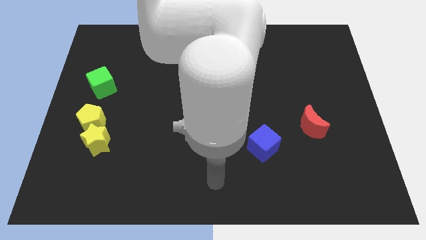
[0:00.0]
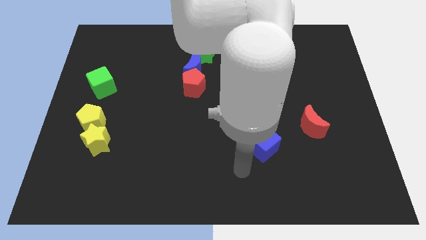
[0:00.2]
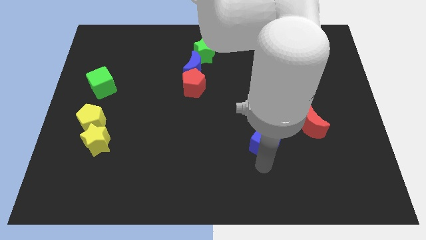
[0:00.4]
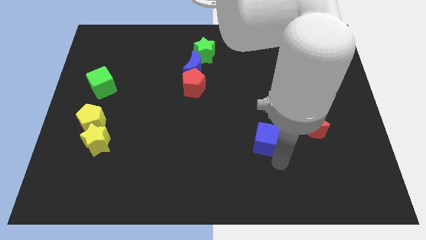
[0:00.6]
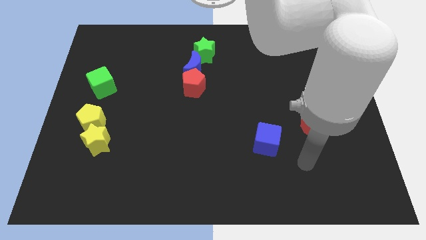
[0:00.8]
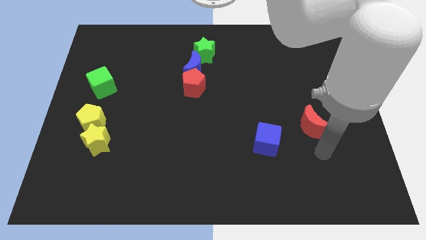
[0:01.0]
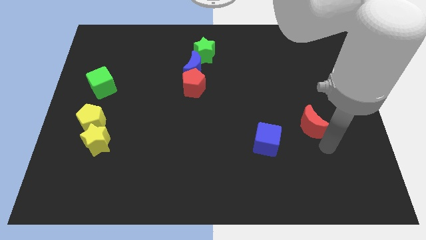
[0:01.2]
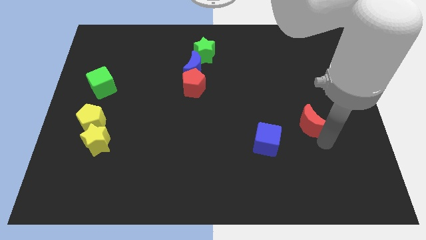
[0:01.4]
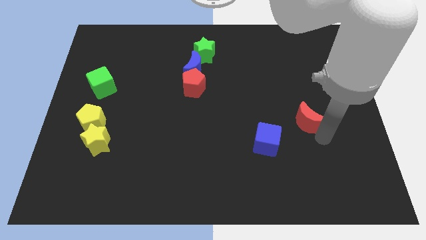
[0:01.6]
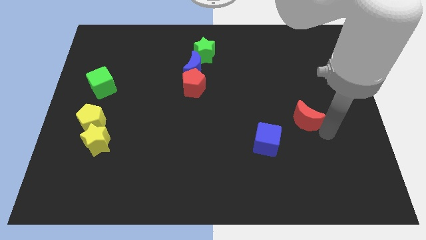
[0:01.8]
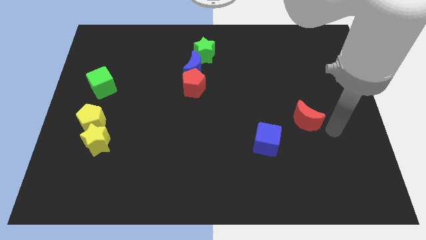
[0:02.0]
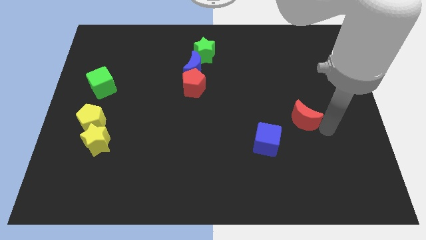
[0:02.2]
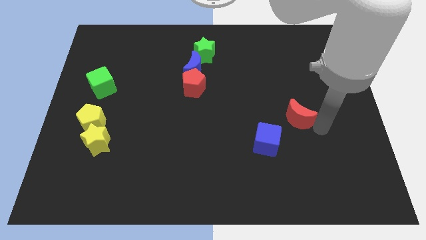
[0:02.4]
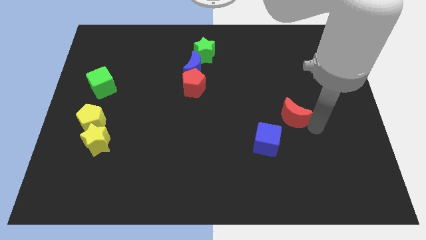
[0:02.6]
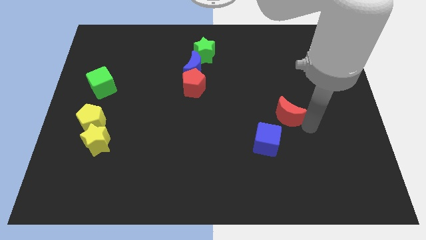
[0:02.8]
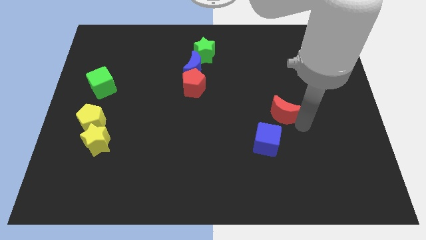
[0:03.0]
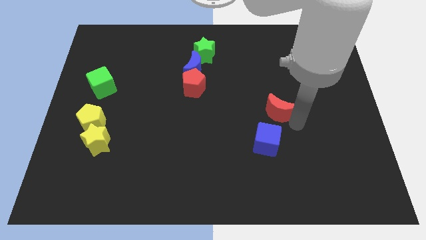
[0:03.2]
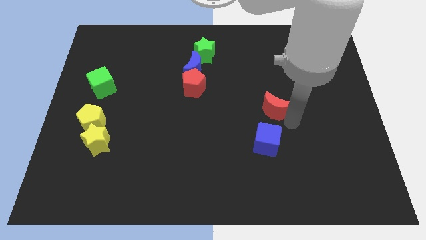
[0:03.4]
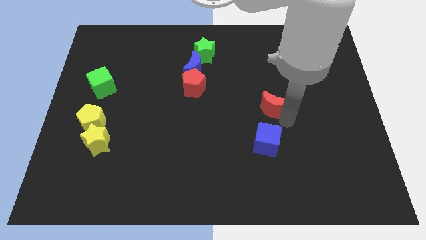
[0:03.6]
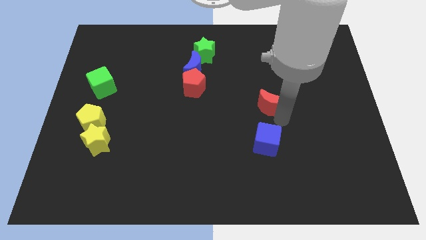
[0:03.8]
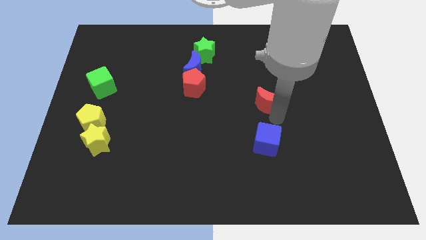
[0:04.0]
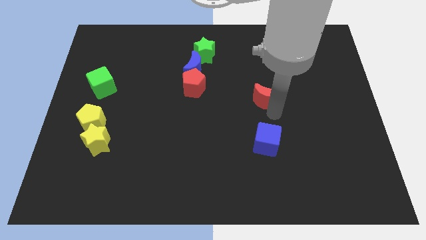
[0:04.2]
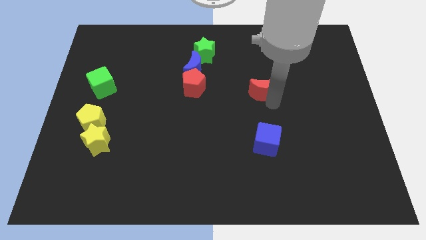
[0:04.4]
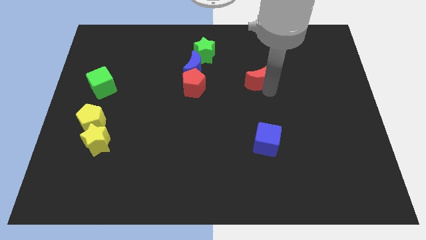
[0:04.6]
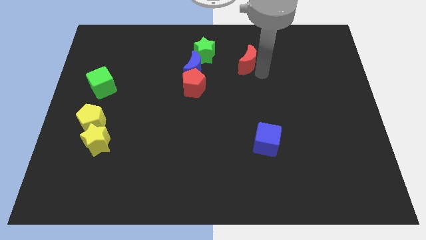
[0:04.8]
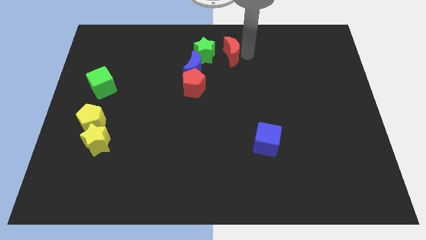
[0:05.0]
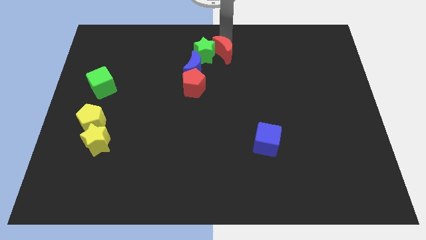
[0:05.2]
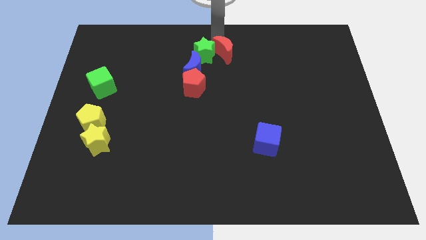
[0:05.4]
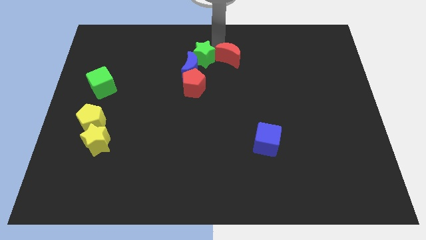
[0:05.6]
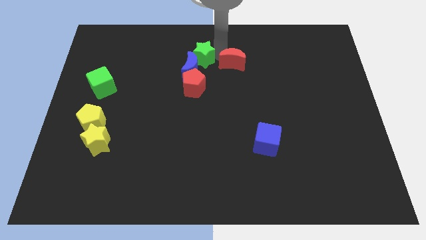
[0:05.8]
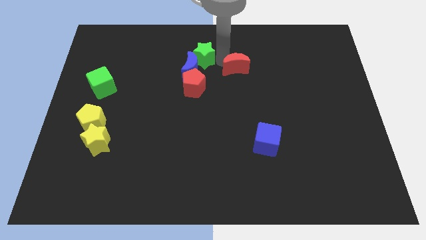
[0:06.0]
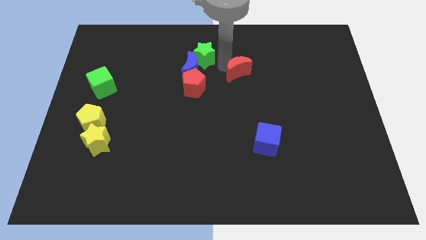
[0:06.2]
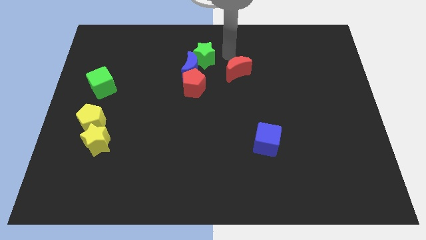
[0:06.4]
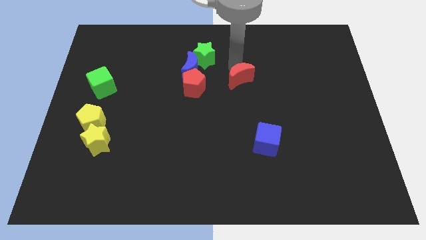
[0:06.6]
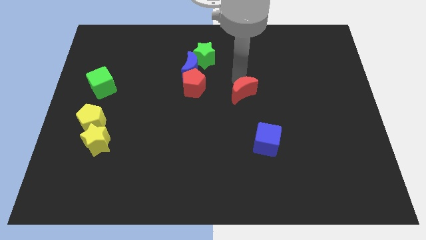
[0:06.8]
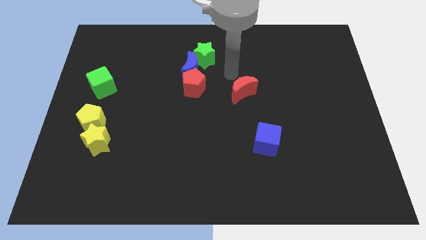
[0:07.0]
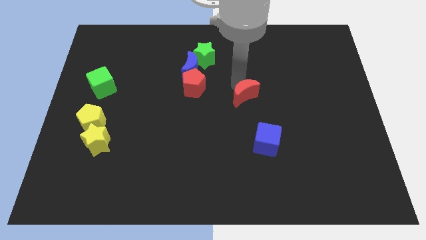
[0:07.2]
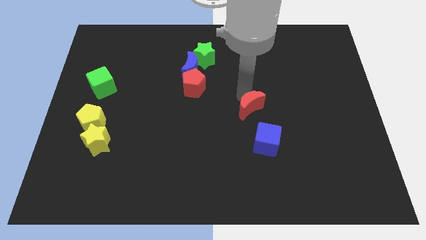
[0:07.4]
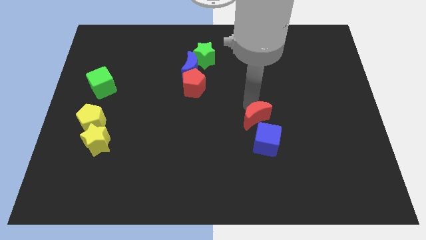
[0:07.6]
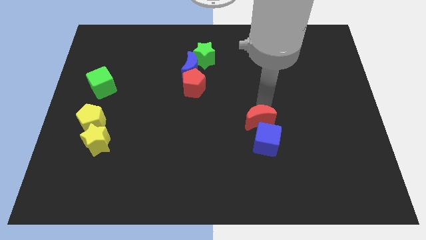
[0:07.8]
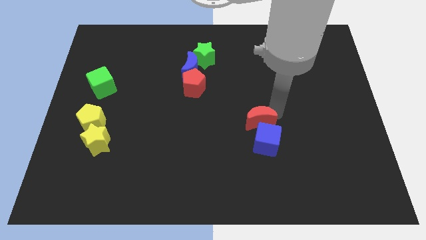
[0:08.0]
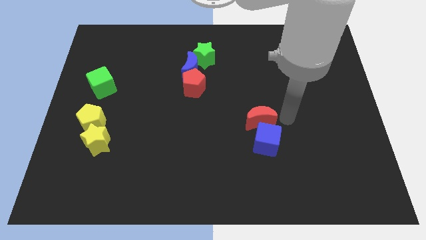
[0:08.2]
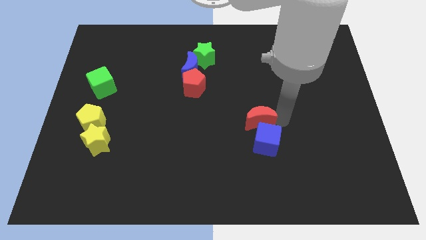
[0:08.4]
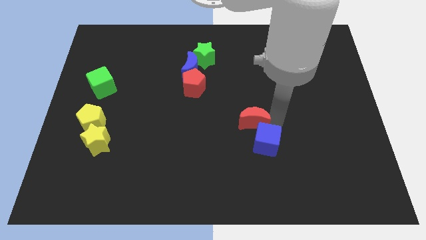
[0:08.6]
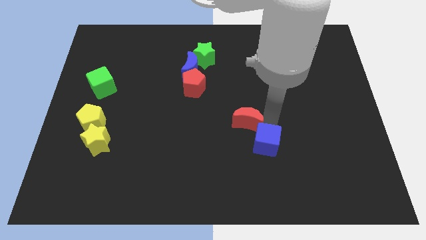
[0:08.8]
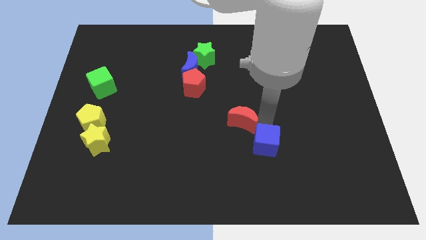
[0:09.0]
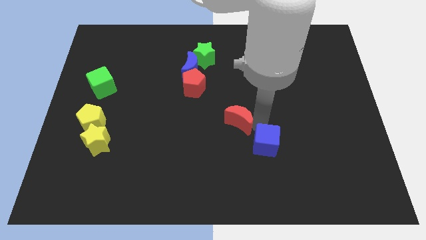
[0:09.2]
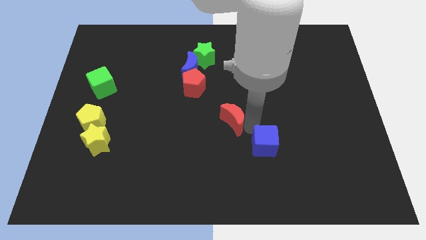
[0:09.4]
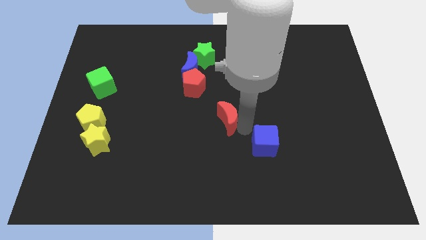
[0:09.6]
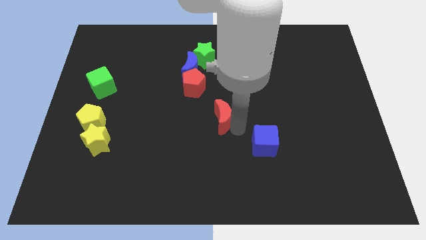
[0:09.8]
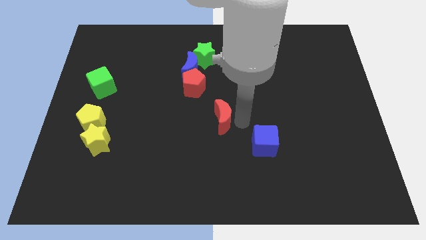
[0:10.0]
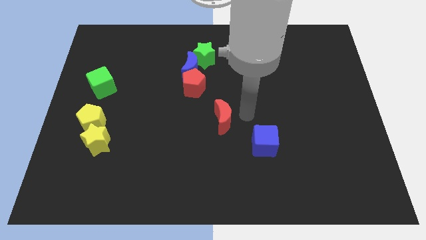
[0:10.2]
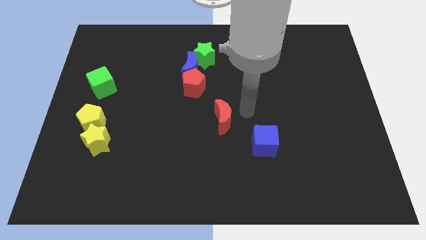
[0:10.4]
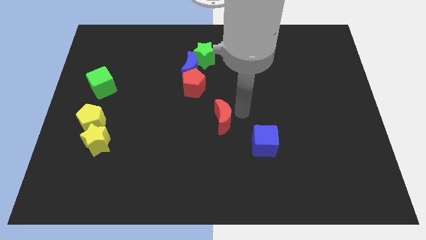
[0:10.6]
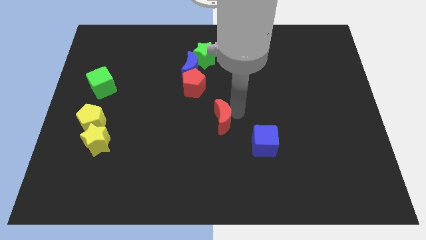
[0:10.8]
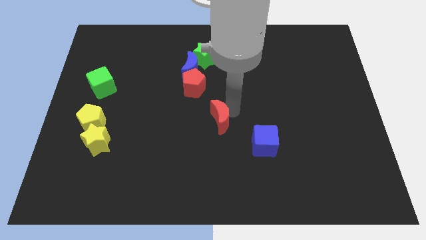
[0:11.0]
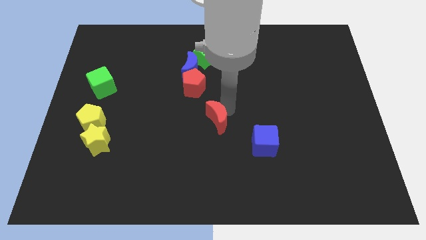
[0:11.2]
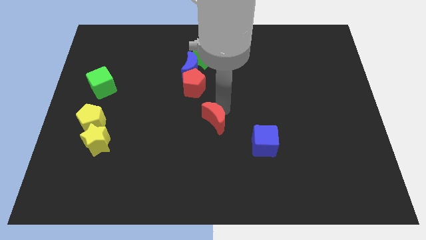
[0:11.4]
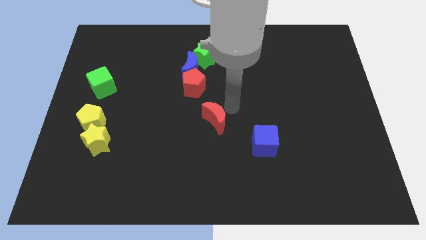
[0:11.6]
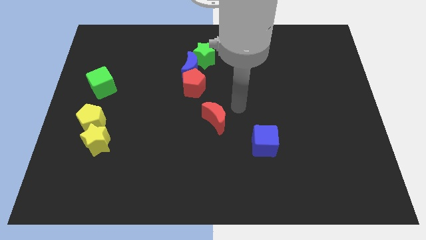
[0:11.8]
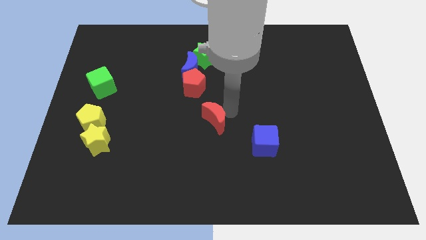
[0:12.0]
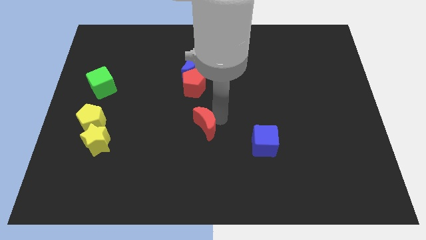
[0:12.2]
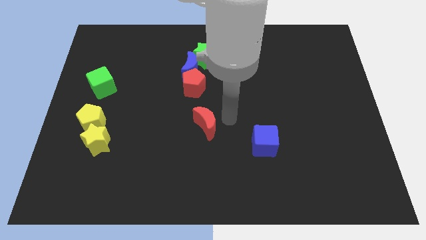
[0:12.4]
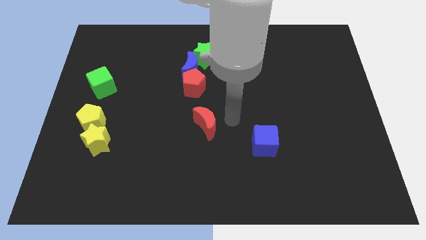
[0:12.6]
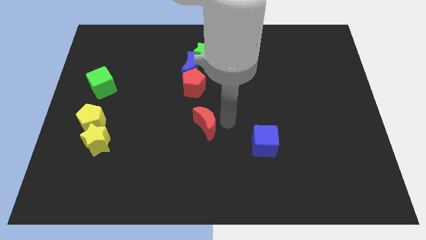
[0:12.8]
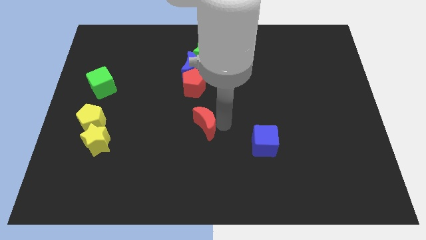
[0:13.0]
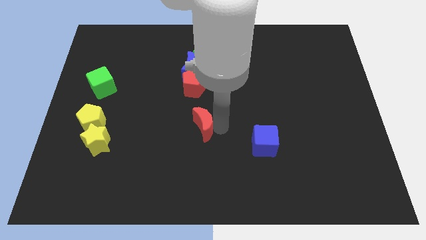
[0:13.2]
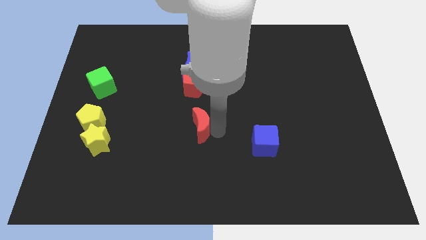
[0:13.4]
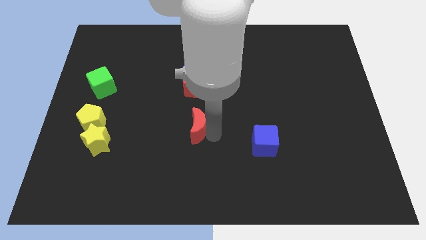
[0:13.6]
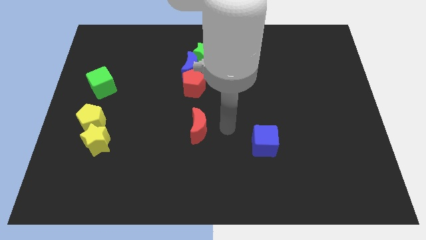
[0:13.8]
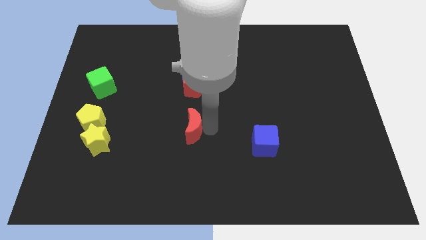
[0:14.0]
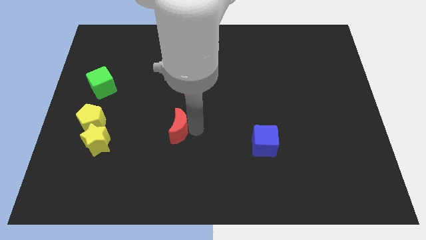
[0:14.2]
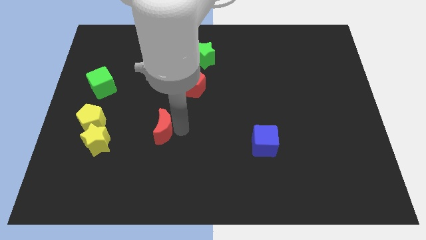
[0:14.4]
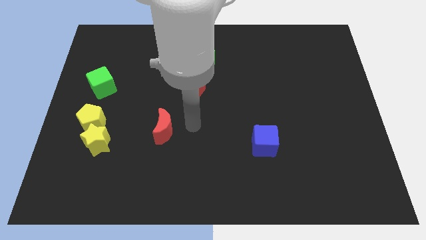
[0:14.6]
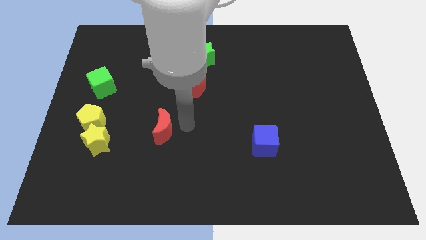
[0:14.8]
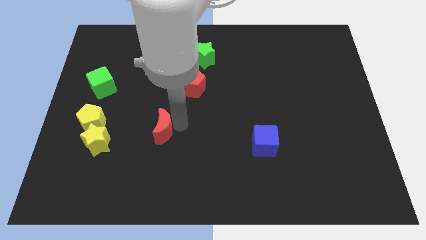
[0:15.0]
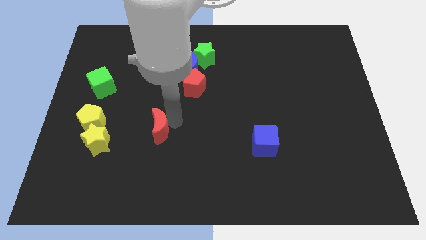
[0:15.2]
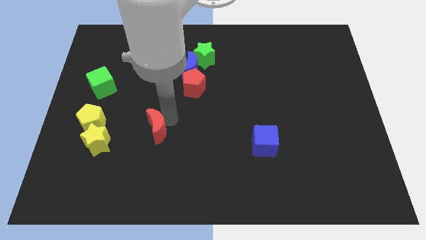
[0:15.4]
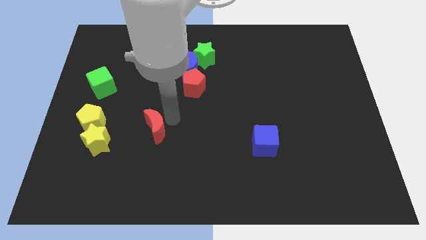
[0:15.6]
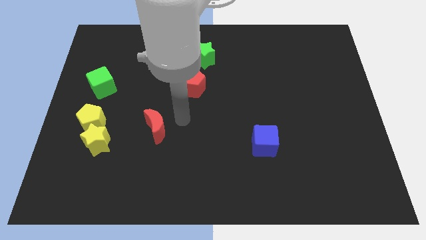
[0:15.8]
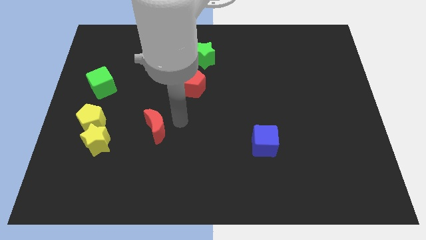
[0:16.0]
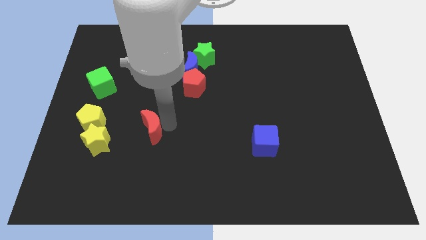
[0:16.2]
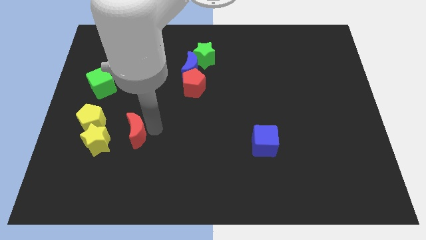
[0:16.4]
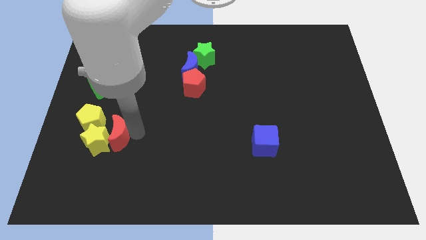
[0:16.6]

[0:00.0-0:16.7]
put the red moon next to the yellow star
